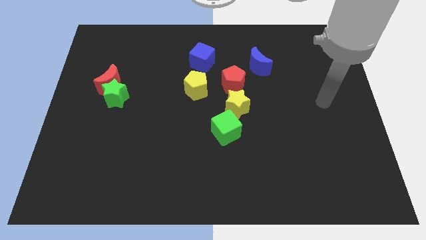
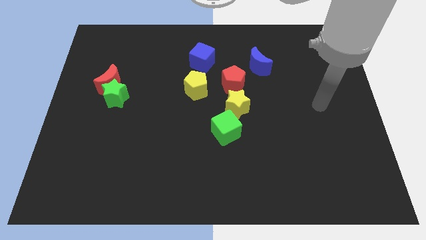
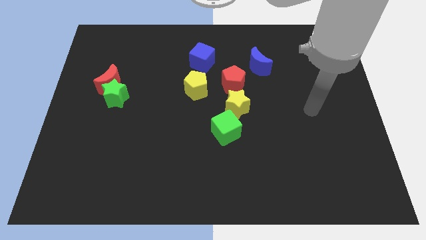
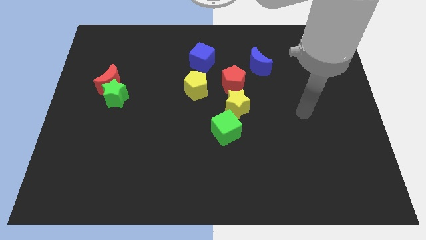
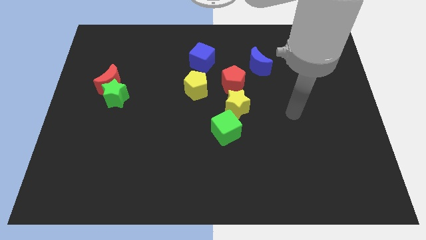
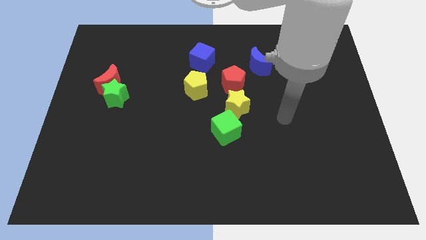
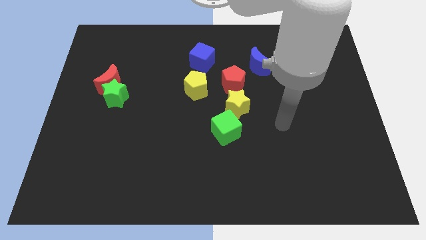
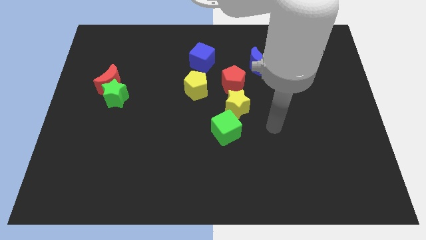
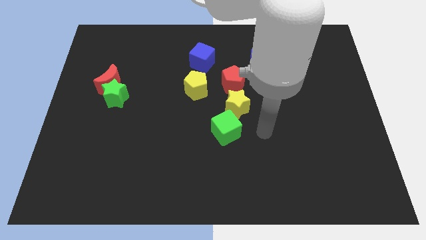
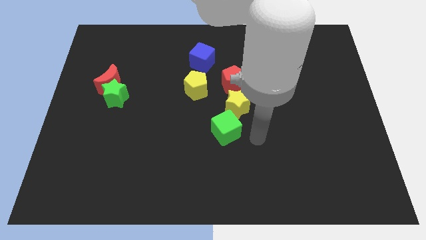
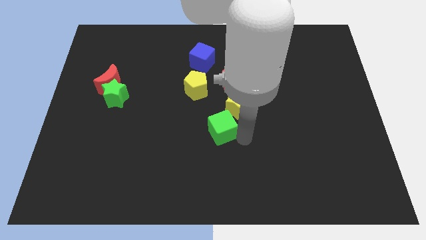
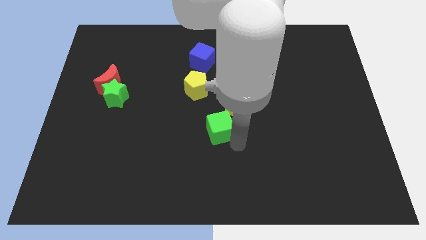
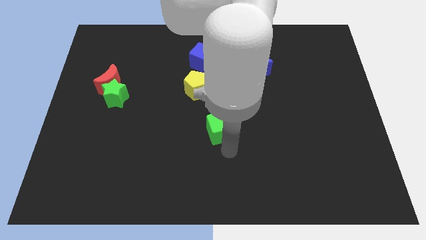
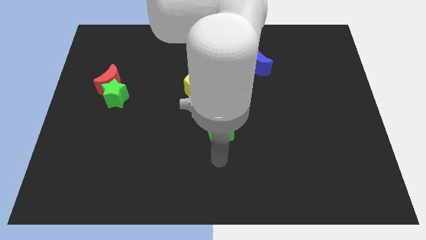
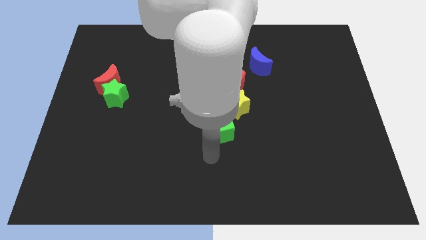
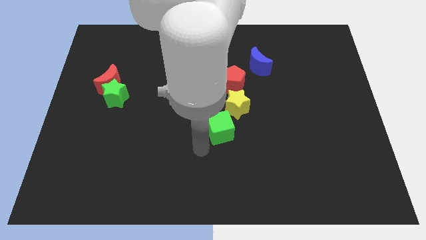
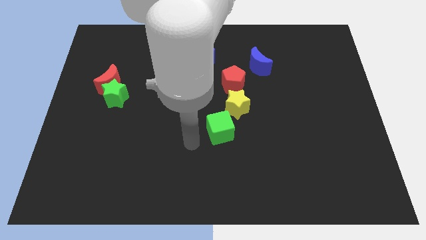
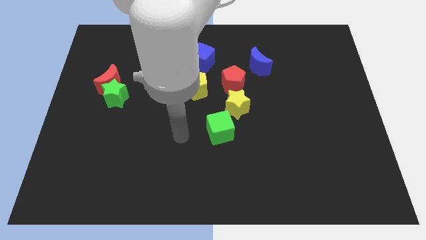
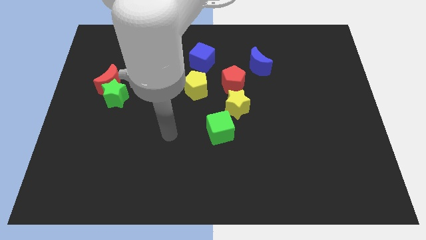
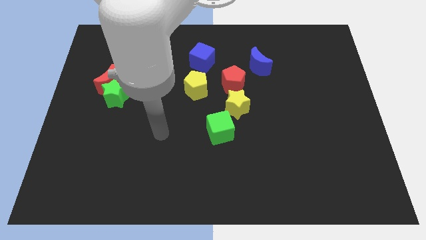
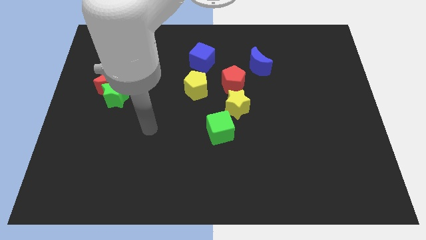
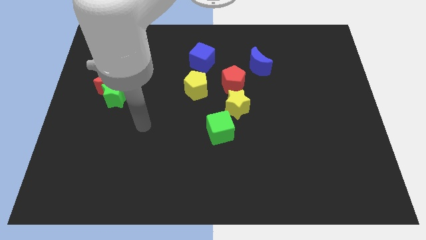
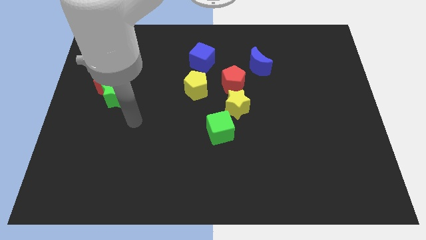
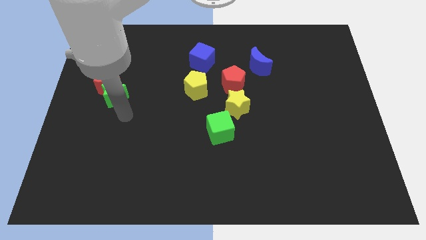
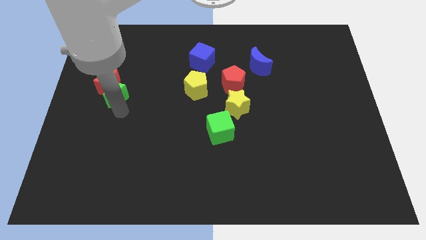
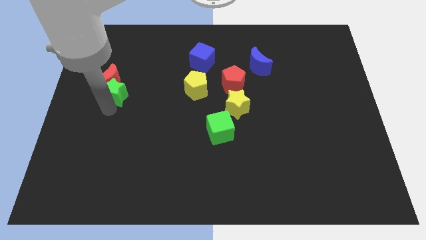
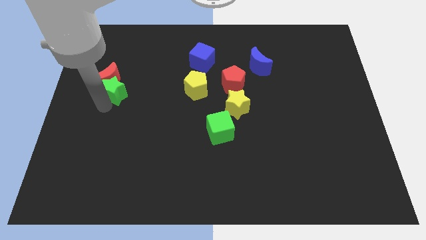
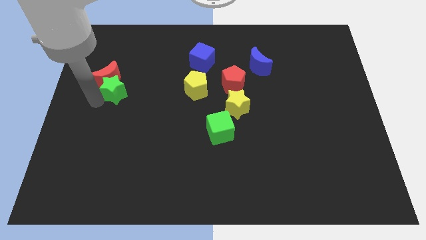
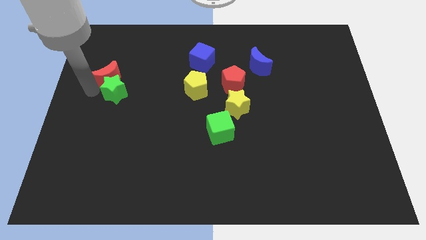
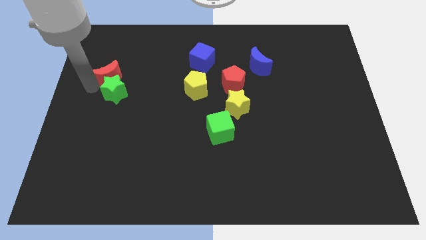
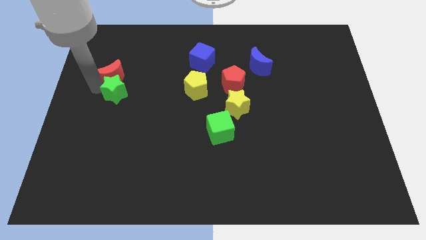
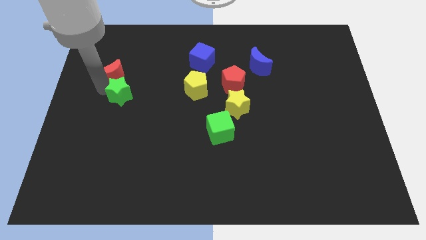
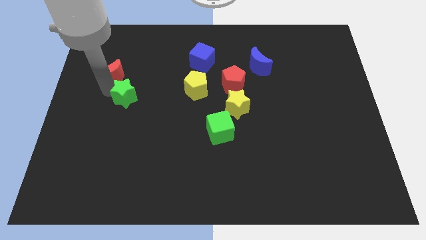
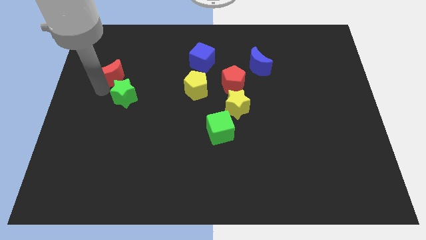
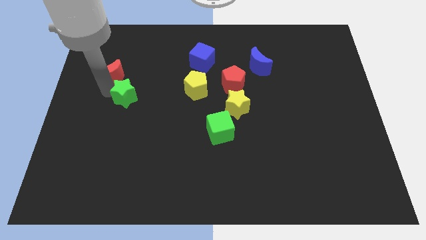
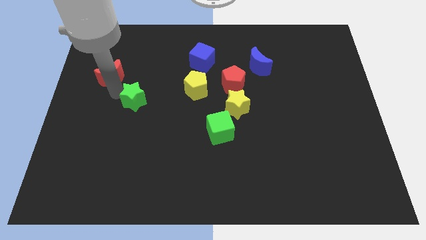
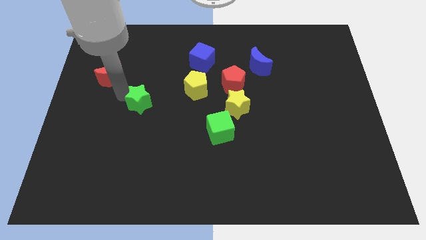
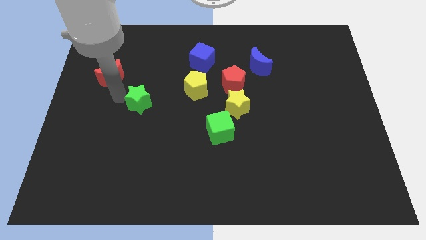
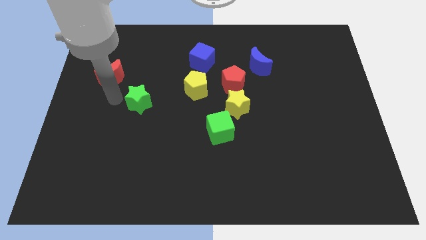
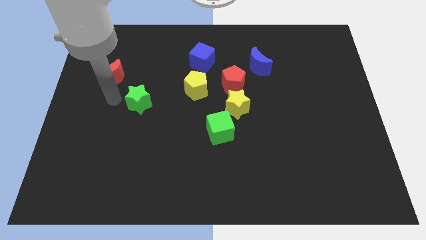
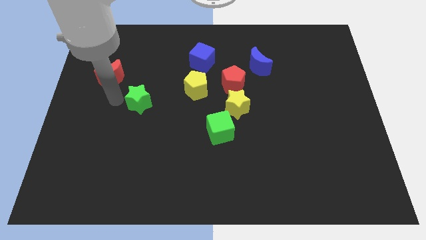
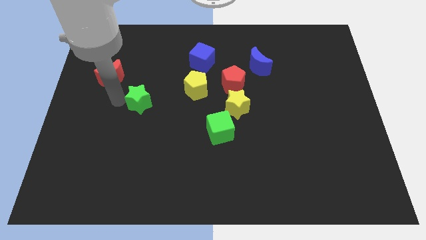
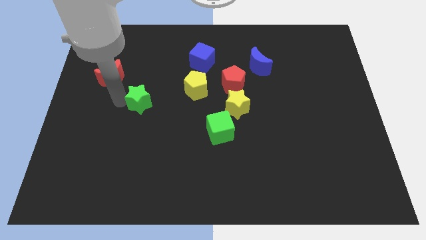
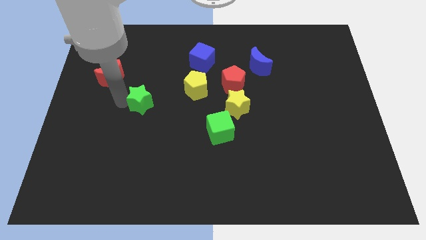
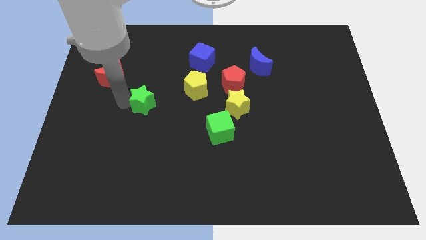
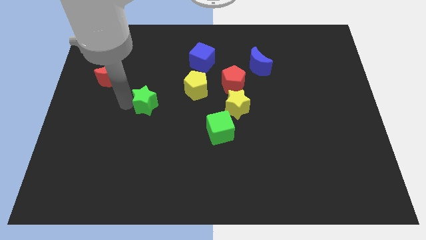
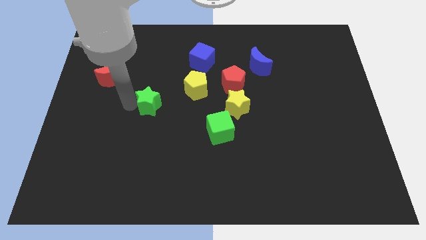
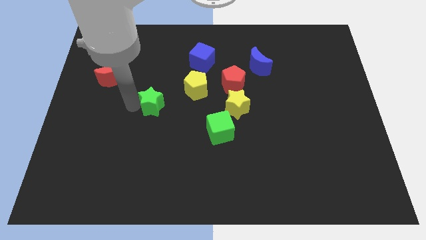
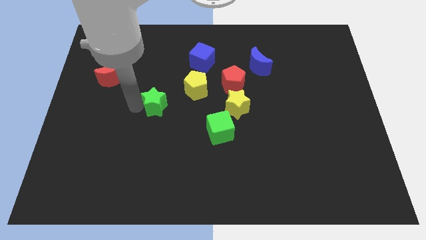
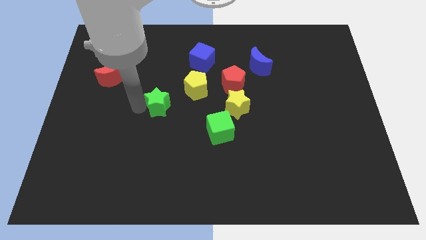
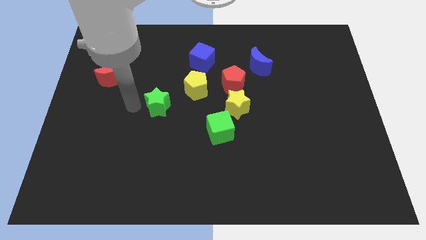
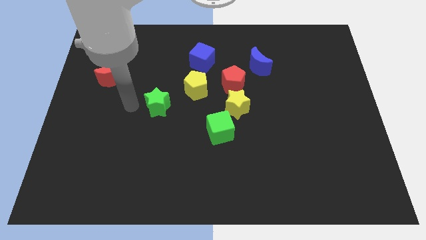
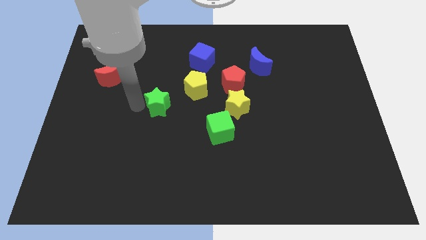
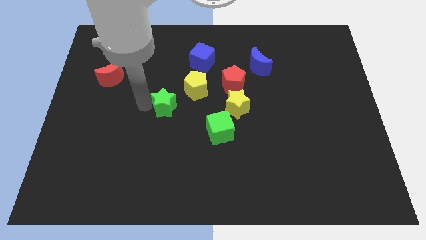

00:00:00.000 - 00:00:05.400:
push the green star to the middle of the board
